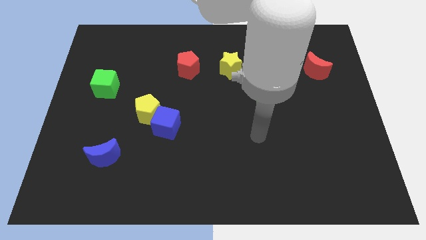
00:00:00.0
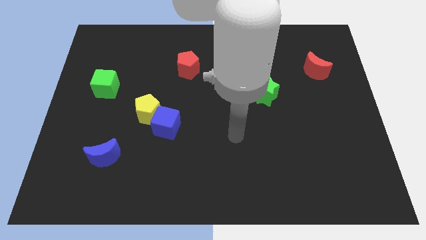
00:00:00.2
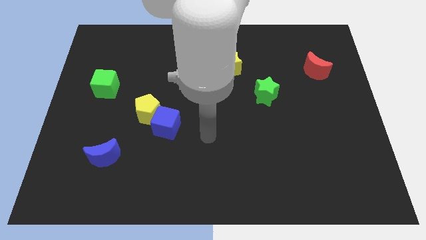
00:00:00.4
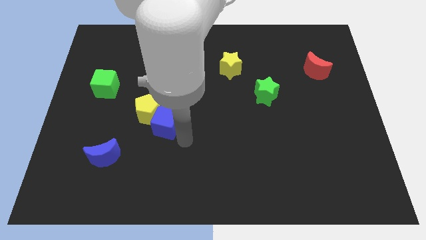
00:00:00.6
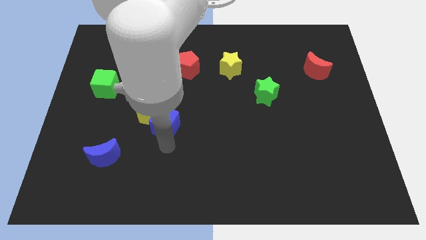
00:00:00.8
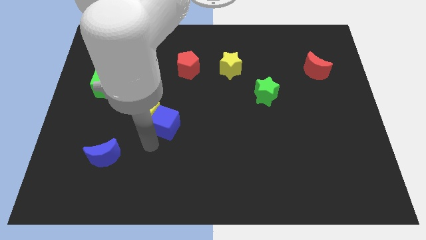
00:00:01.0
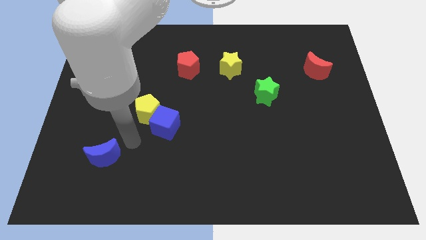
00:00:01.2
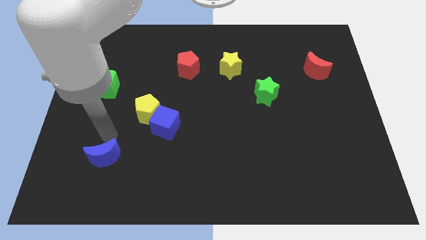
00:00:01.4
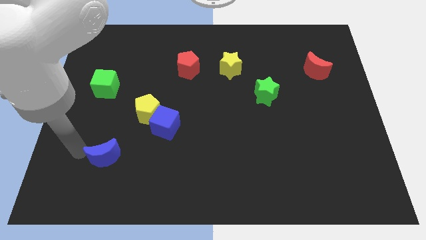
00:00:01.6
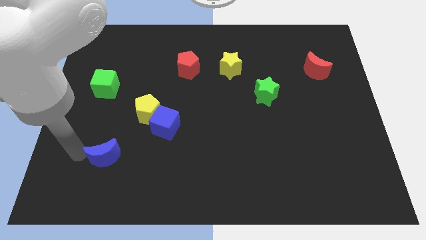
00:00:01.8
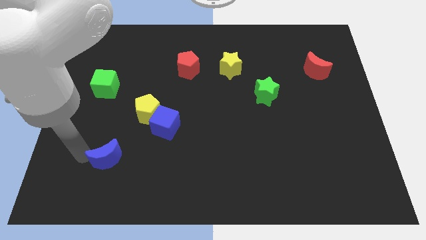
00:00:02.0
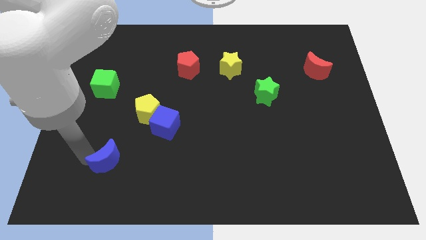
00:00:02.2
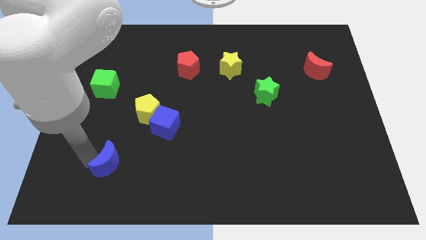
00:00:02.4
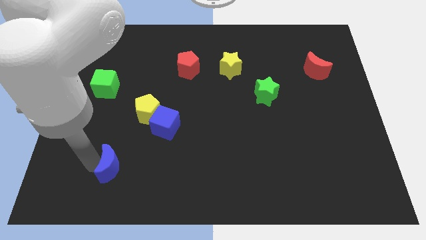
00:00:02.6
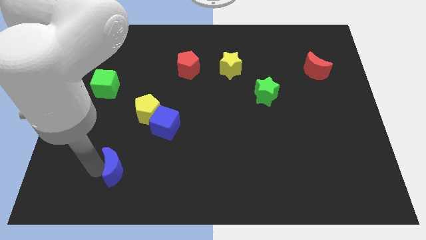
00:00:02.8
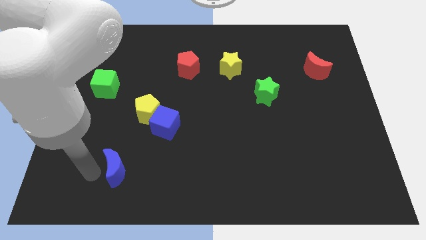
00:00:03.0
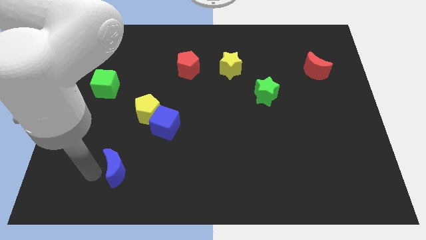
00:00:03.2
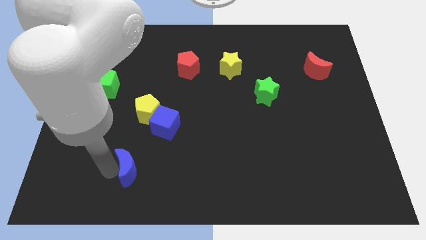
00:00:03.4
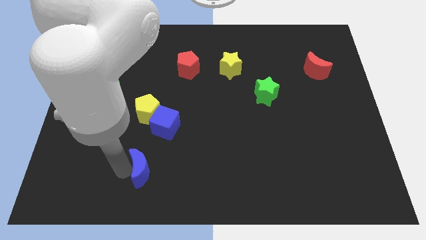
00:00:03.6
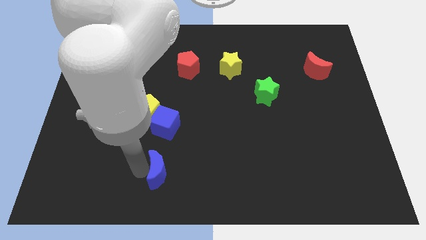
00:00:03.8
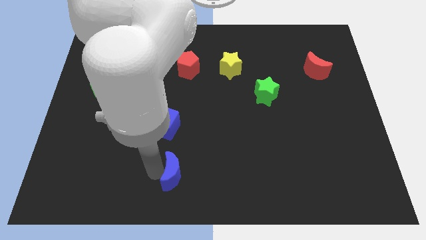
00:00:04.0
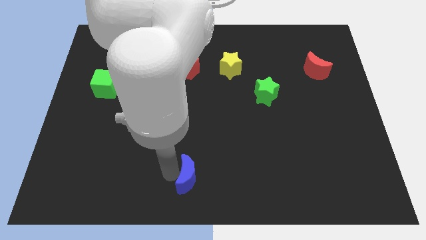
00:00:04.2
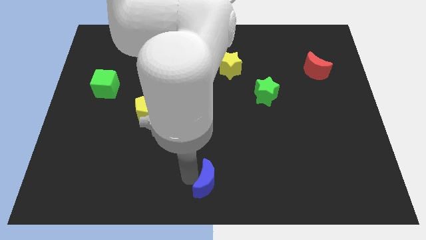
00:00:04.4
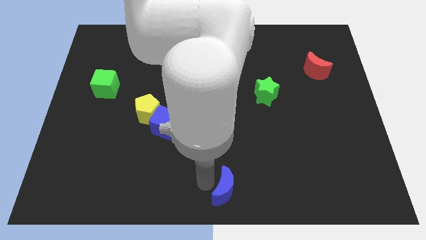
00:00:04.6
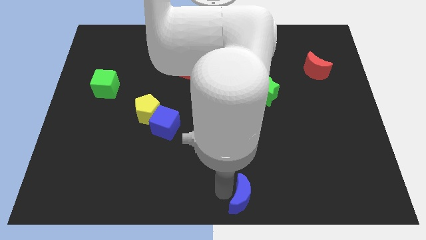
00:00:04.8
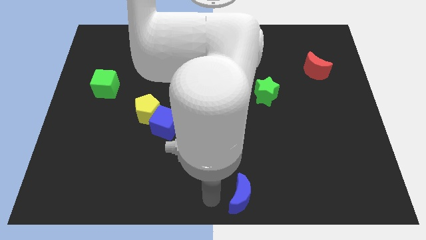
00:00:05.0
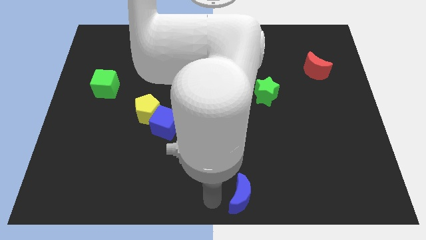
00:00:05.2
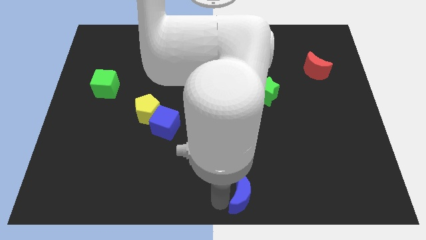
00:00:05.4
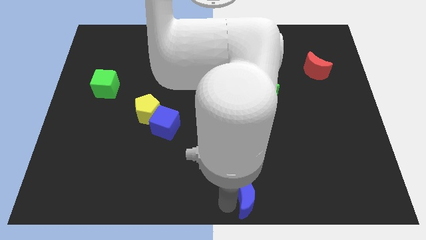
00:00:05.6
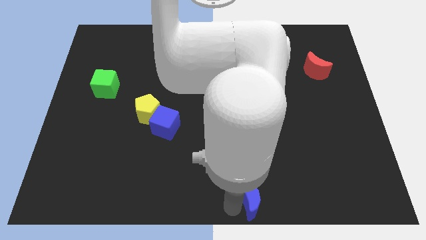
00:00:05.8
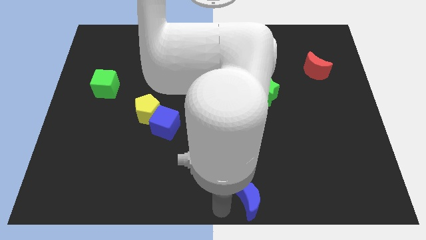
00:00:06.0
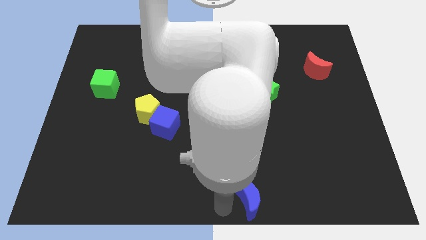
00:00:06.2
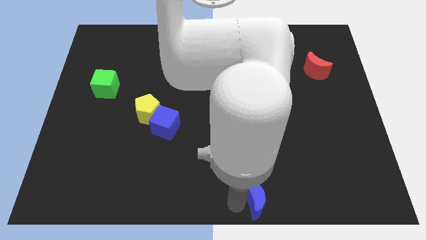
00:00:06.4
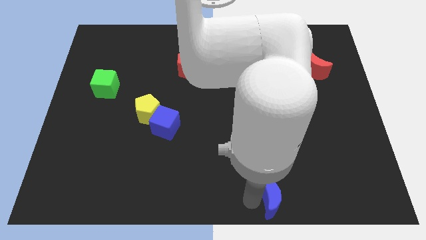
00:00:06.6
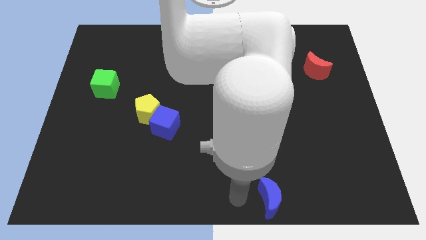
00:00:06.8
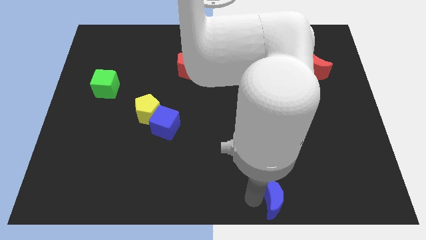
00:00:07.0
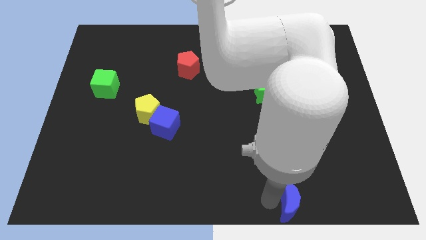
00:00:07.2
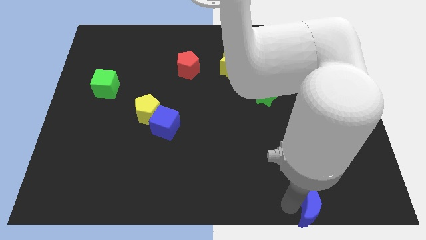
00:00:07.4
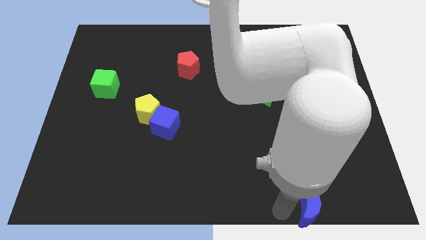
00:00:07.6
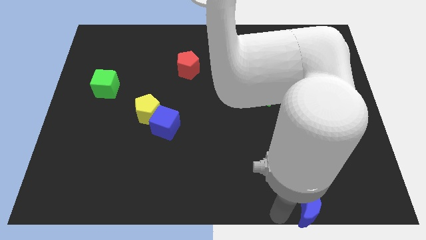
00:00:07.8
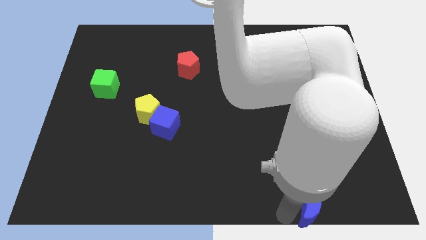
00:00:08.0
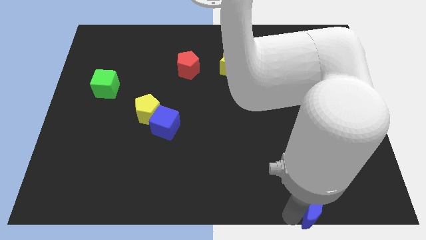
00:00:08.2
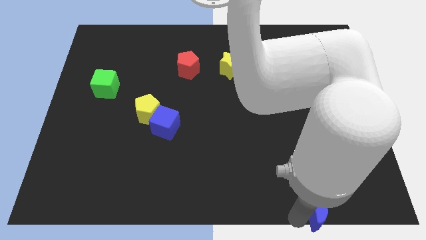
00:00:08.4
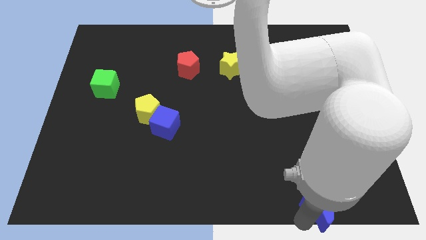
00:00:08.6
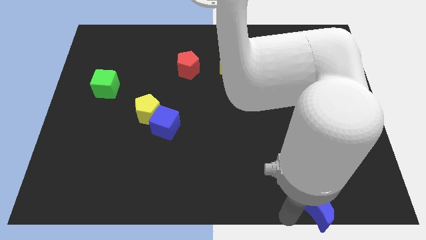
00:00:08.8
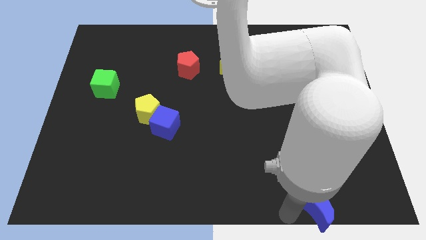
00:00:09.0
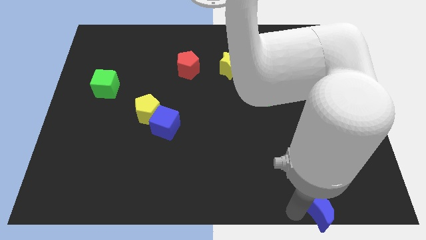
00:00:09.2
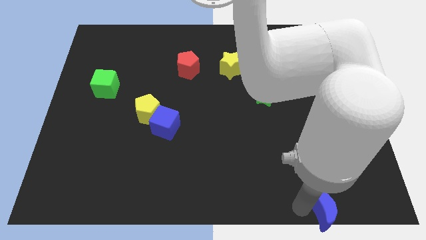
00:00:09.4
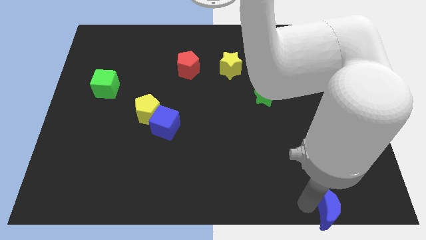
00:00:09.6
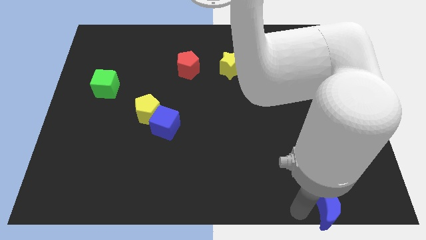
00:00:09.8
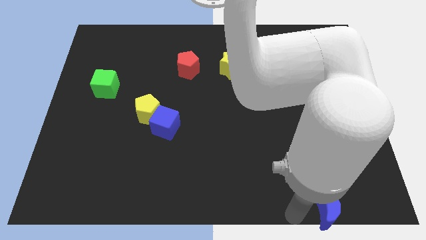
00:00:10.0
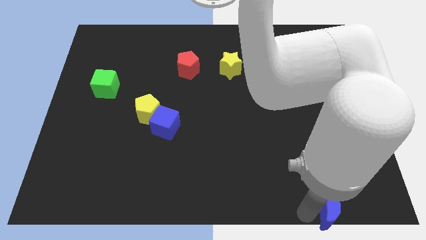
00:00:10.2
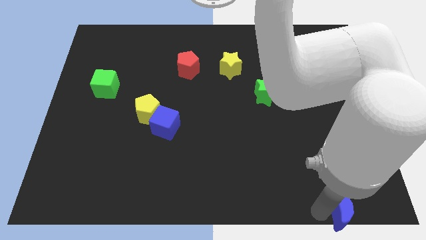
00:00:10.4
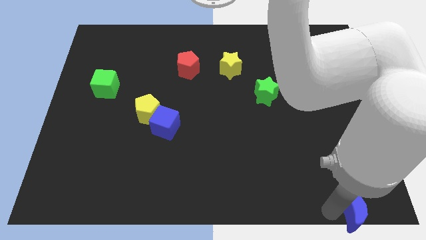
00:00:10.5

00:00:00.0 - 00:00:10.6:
push the blue moon to the bottom right

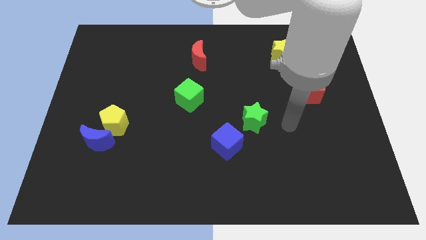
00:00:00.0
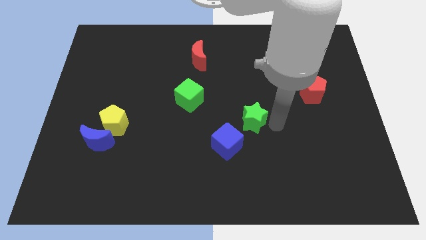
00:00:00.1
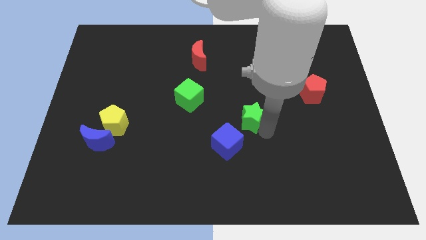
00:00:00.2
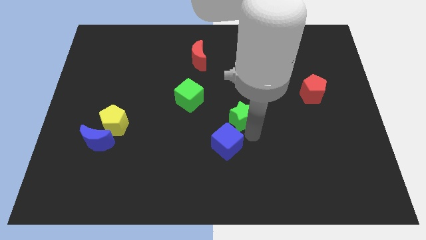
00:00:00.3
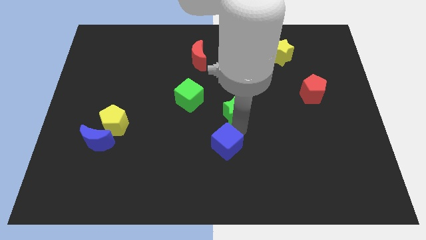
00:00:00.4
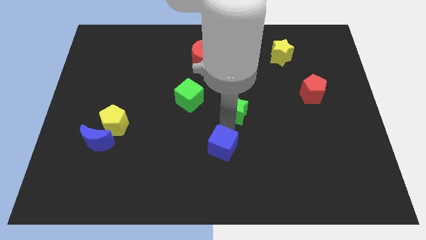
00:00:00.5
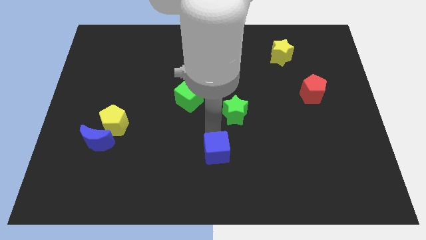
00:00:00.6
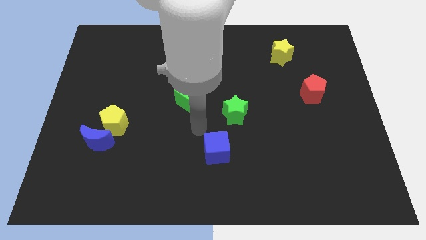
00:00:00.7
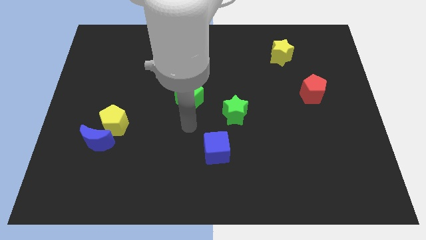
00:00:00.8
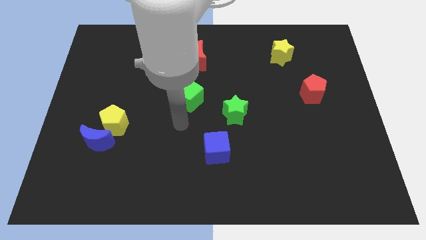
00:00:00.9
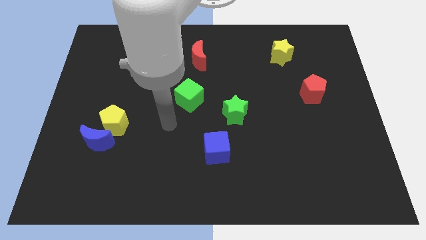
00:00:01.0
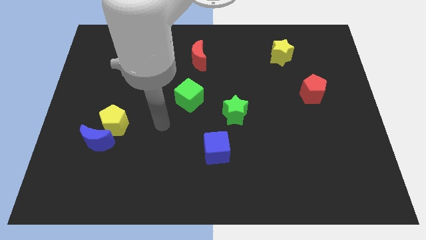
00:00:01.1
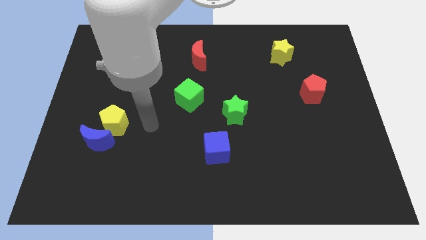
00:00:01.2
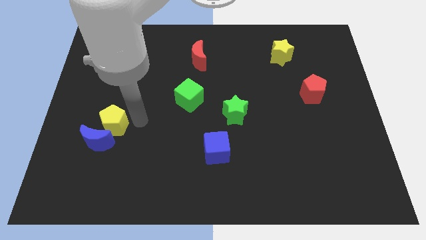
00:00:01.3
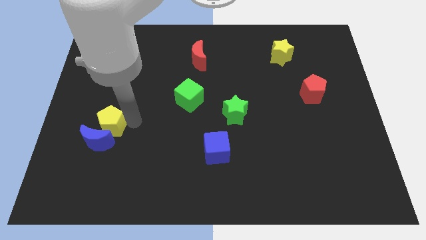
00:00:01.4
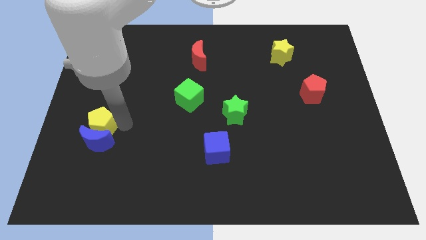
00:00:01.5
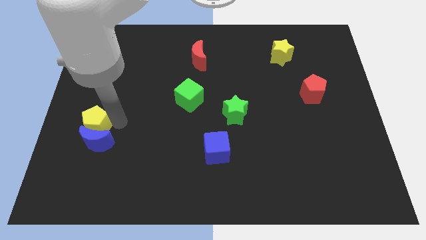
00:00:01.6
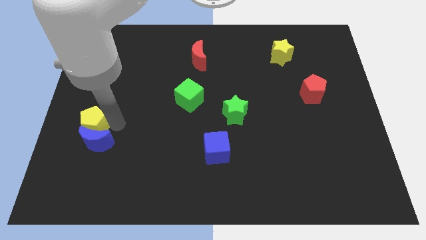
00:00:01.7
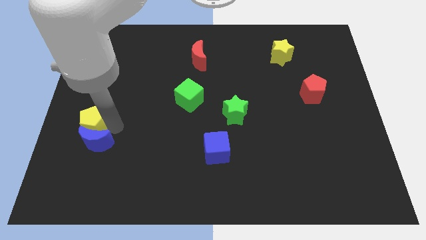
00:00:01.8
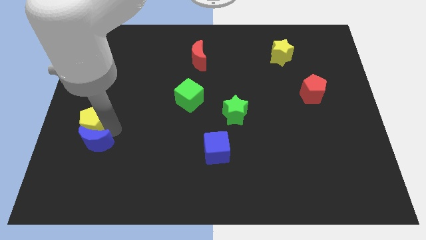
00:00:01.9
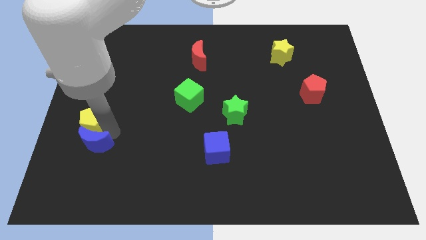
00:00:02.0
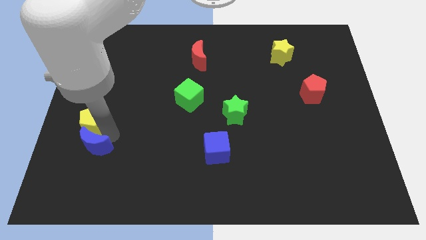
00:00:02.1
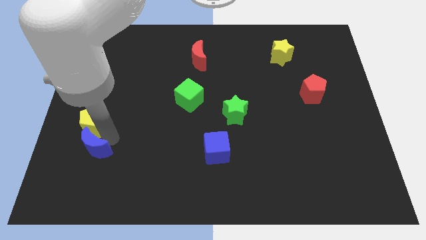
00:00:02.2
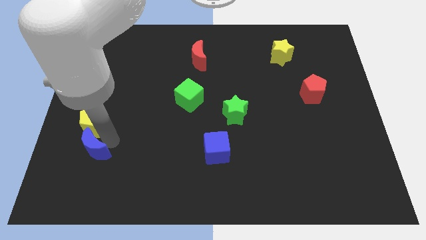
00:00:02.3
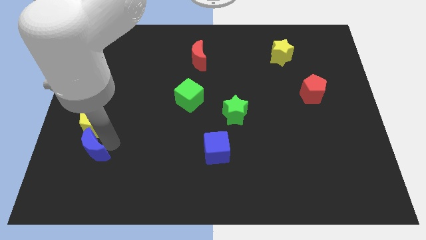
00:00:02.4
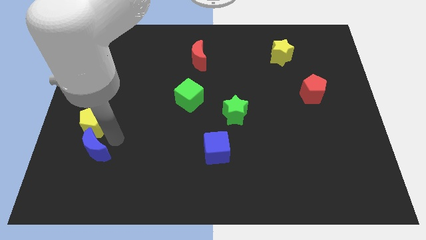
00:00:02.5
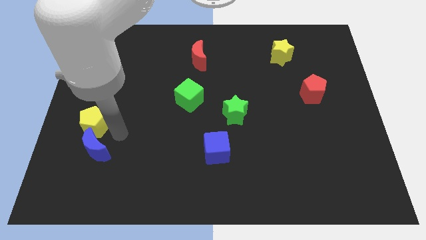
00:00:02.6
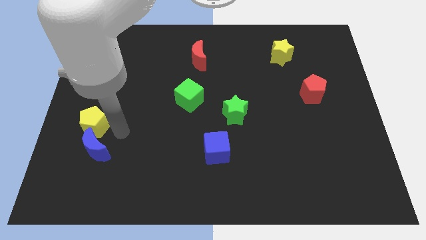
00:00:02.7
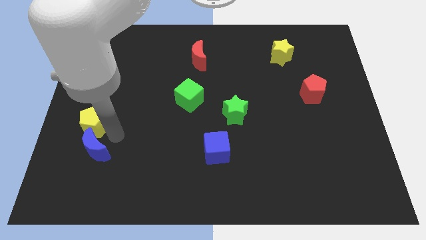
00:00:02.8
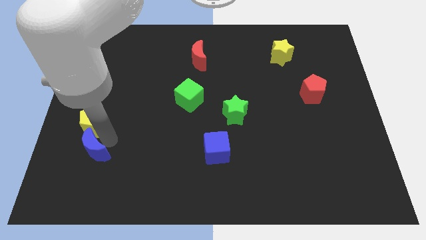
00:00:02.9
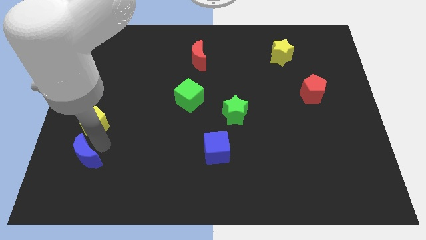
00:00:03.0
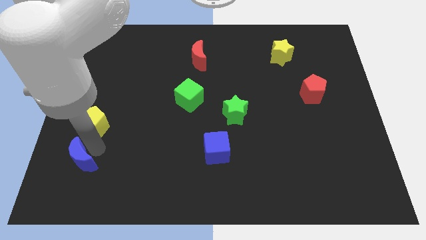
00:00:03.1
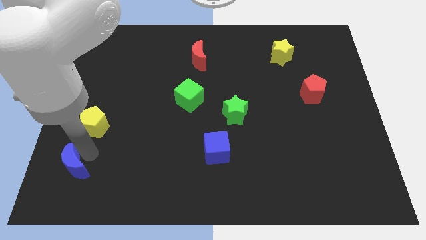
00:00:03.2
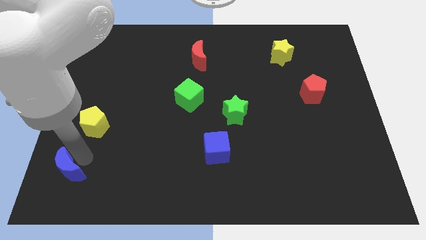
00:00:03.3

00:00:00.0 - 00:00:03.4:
push the blue moon to the bottom left
